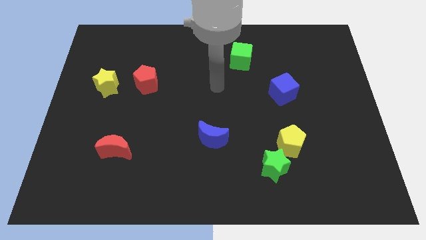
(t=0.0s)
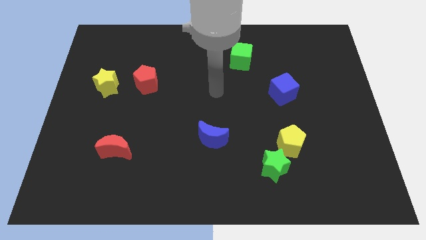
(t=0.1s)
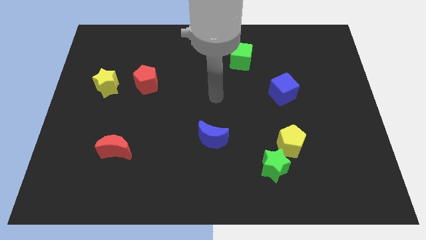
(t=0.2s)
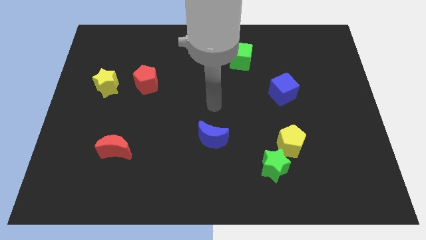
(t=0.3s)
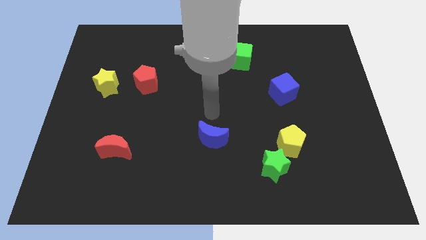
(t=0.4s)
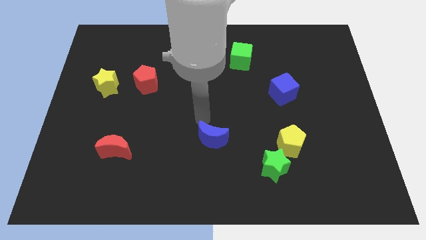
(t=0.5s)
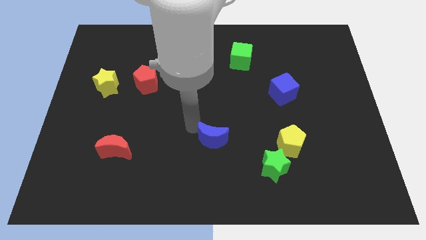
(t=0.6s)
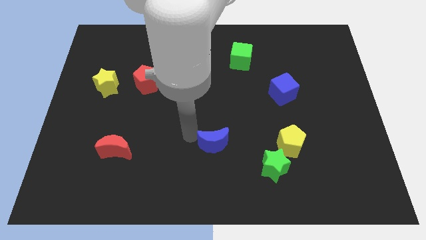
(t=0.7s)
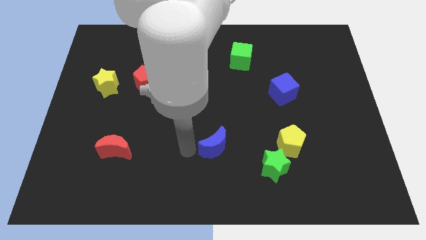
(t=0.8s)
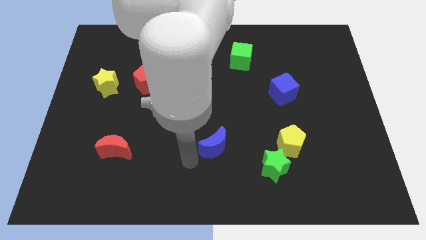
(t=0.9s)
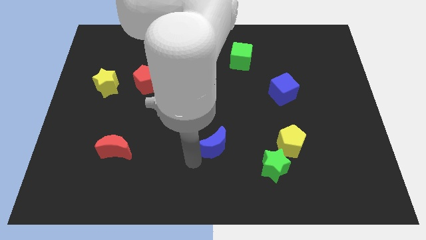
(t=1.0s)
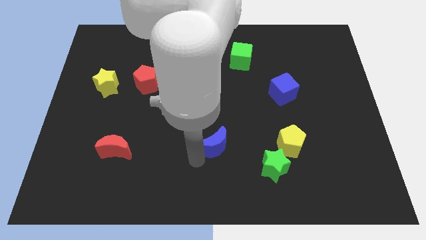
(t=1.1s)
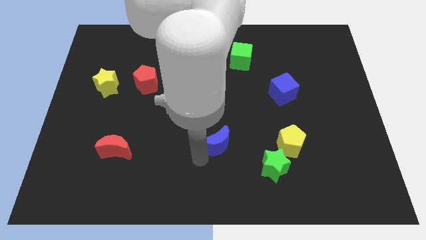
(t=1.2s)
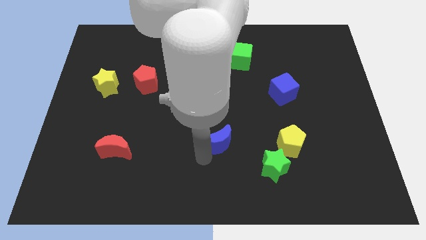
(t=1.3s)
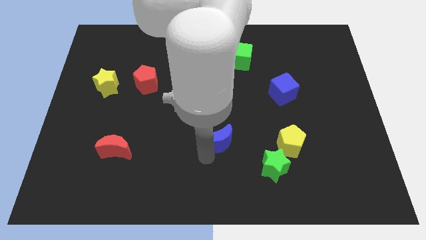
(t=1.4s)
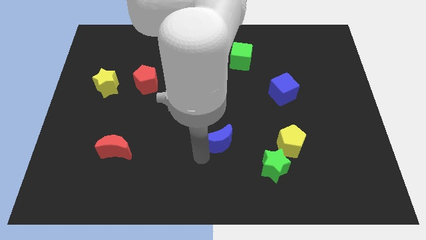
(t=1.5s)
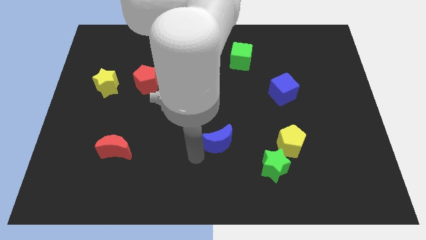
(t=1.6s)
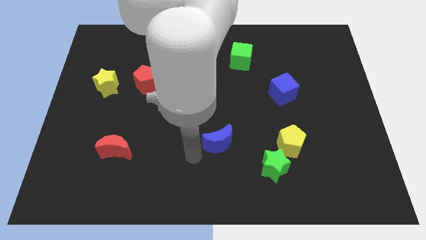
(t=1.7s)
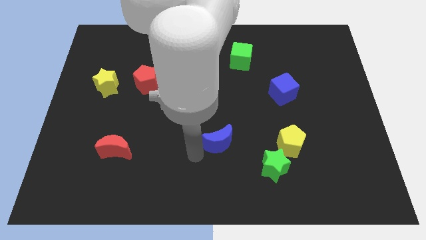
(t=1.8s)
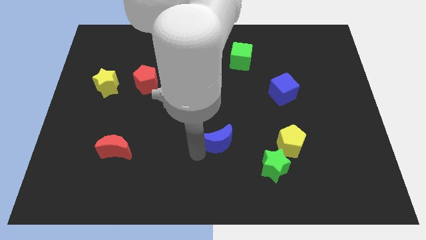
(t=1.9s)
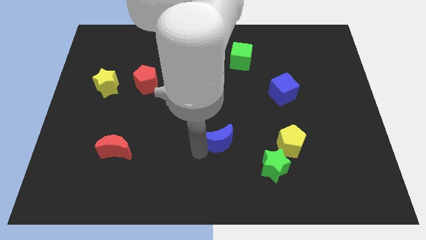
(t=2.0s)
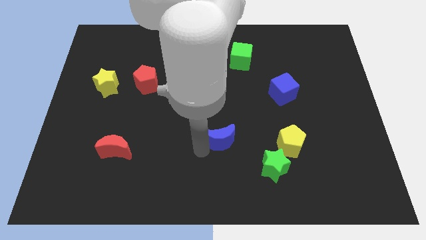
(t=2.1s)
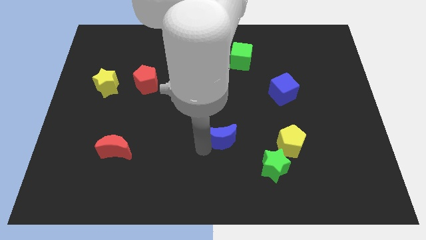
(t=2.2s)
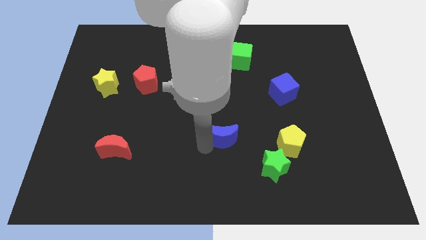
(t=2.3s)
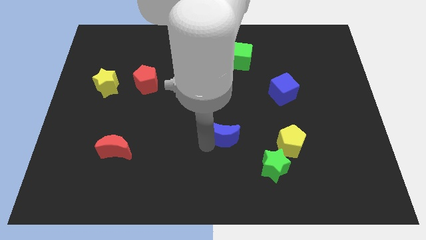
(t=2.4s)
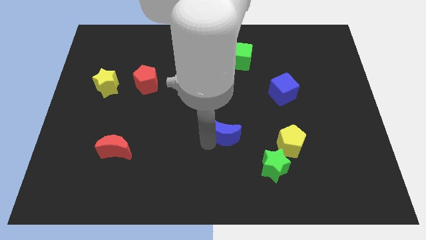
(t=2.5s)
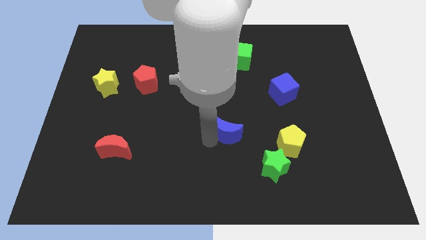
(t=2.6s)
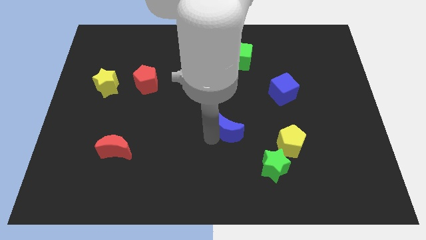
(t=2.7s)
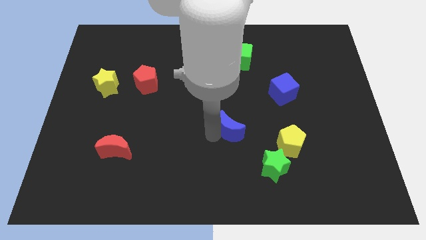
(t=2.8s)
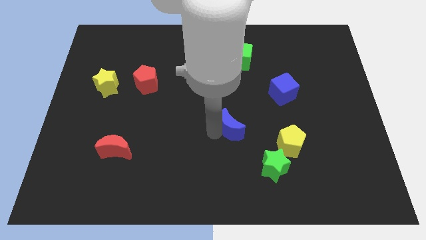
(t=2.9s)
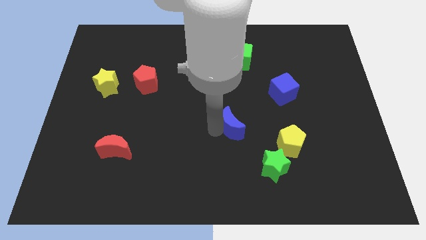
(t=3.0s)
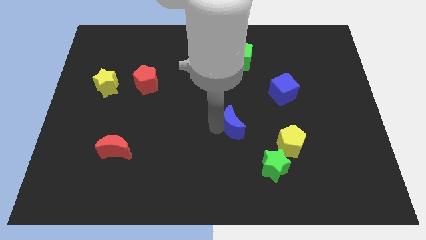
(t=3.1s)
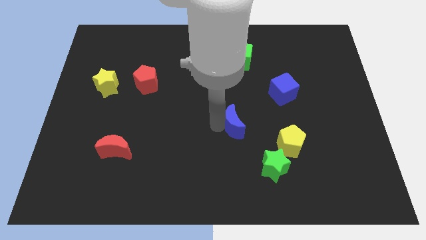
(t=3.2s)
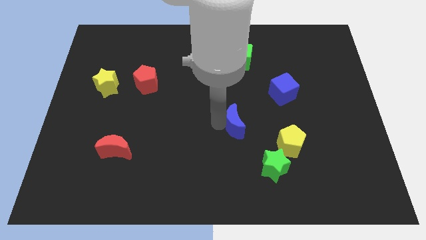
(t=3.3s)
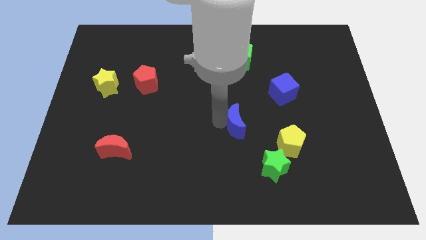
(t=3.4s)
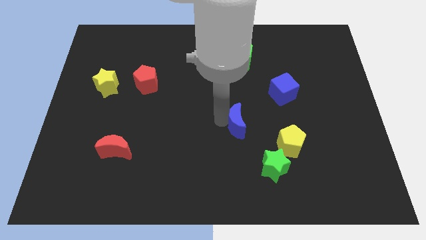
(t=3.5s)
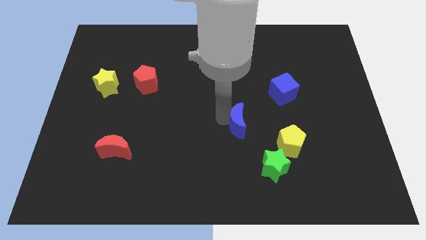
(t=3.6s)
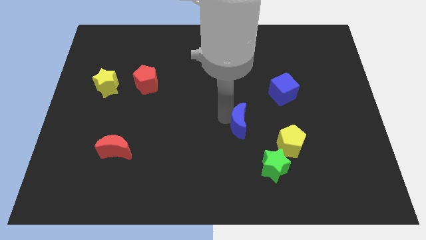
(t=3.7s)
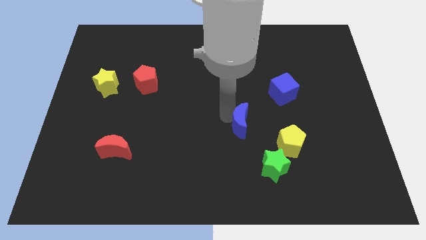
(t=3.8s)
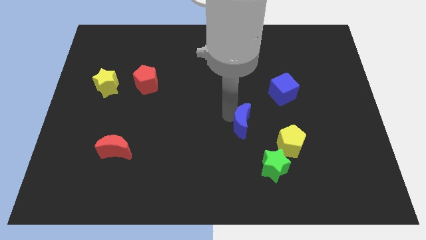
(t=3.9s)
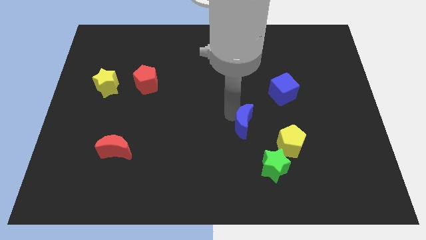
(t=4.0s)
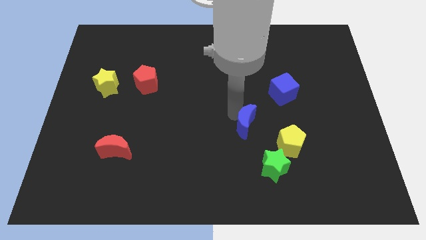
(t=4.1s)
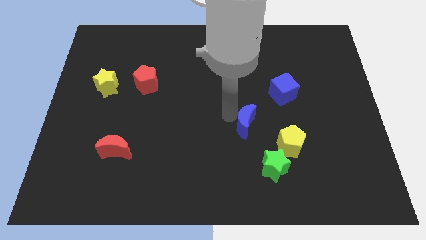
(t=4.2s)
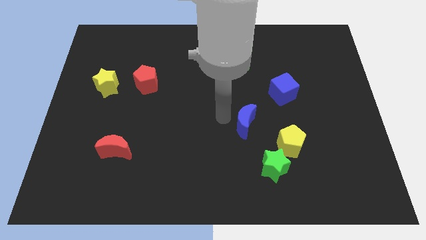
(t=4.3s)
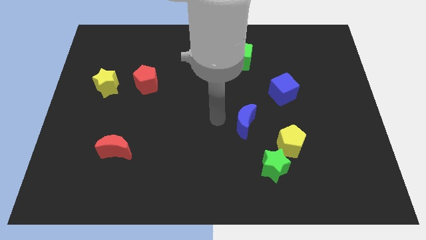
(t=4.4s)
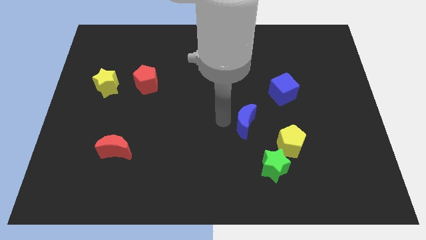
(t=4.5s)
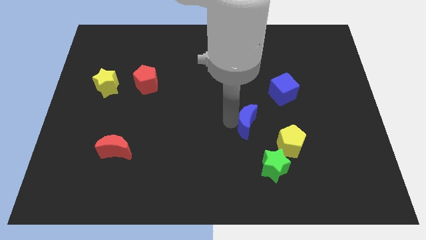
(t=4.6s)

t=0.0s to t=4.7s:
push the blue moon above the green star

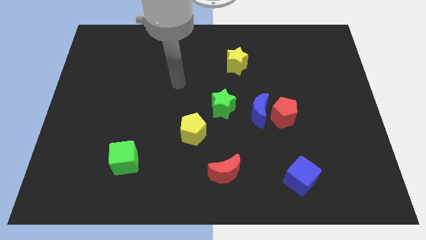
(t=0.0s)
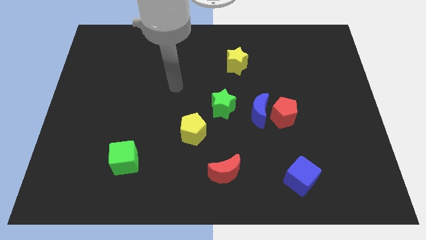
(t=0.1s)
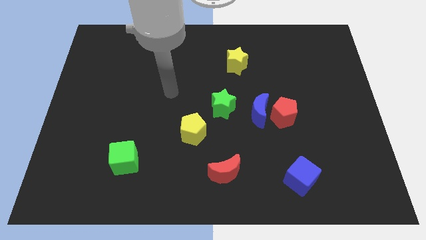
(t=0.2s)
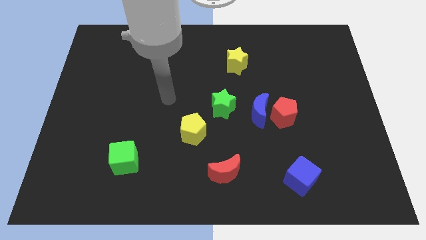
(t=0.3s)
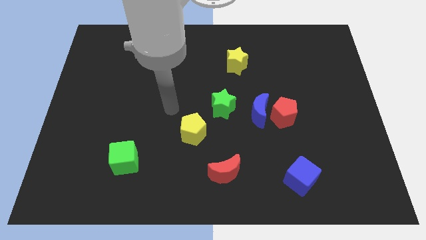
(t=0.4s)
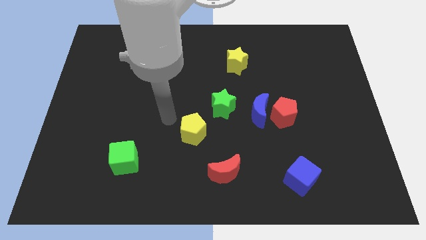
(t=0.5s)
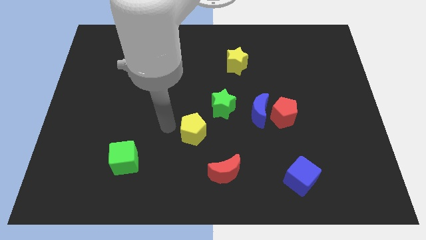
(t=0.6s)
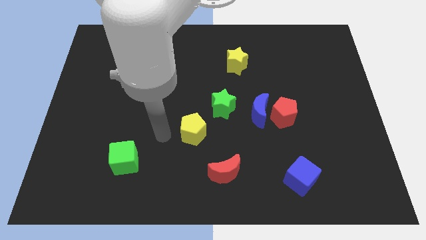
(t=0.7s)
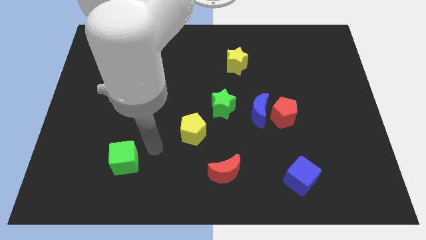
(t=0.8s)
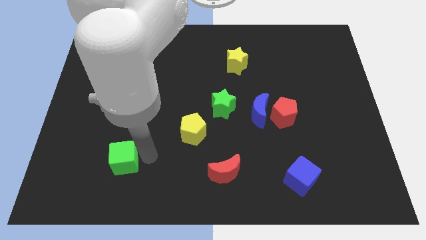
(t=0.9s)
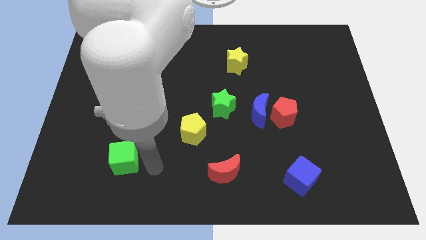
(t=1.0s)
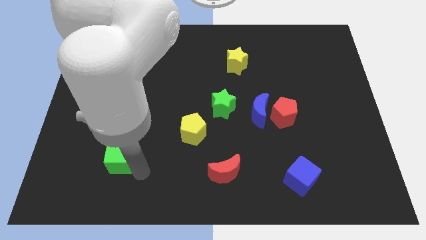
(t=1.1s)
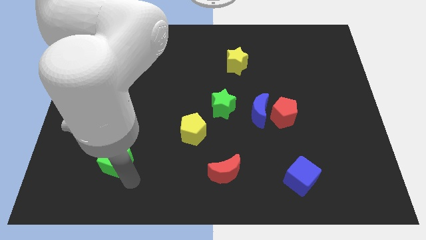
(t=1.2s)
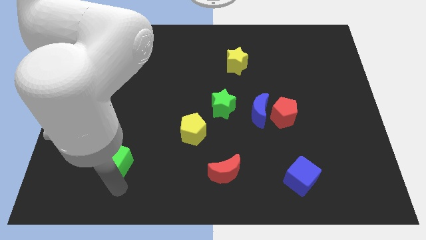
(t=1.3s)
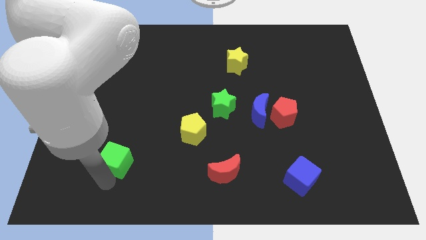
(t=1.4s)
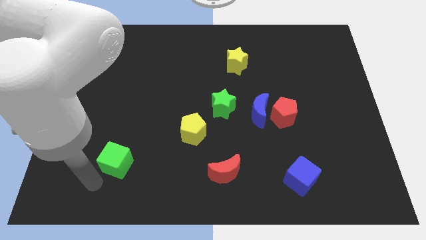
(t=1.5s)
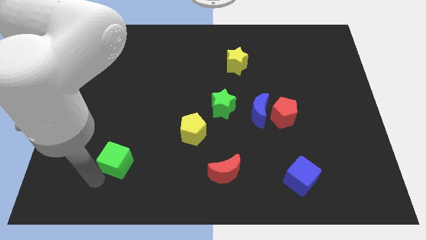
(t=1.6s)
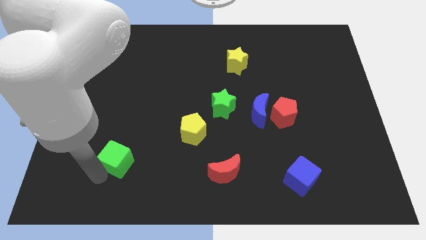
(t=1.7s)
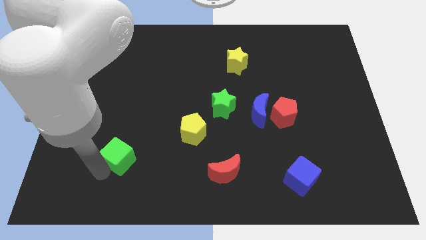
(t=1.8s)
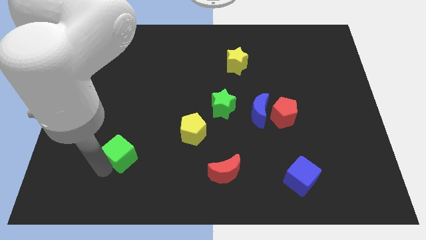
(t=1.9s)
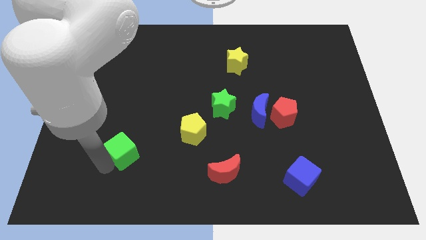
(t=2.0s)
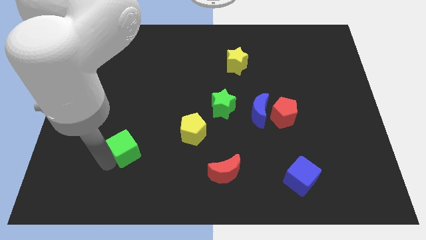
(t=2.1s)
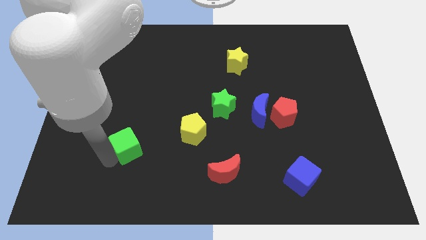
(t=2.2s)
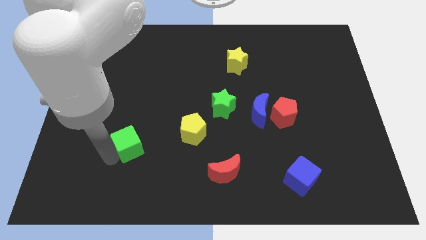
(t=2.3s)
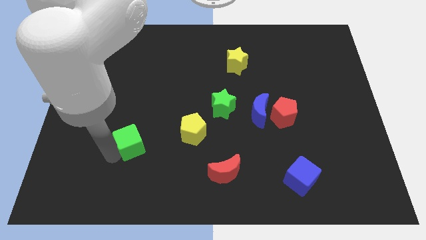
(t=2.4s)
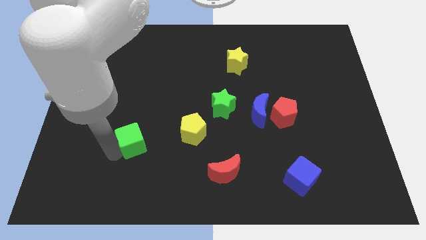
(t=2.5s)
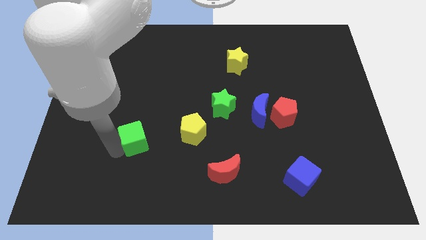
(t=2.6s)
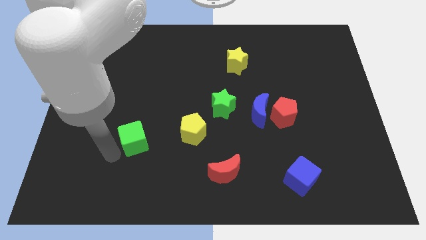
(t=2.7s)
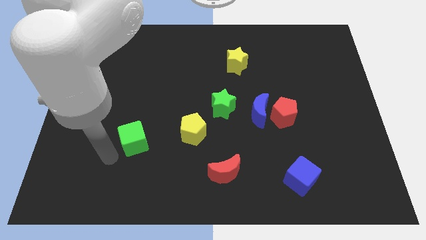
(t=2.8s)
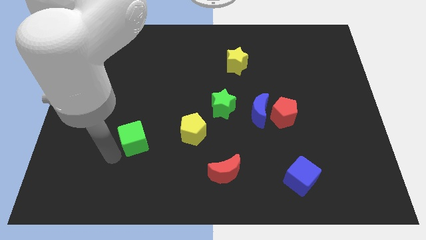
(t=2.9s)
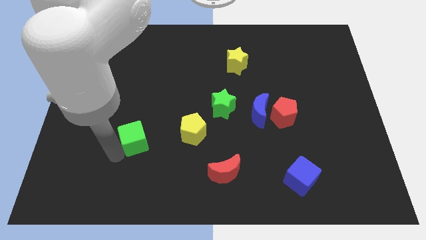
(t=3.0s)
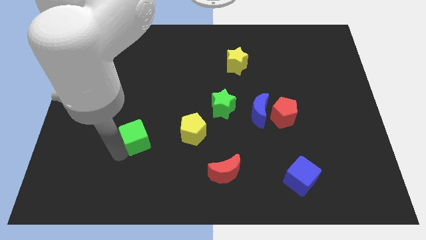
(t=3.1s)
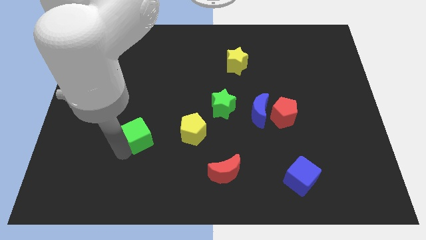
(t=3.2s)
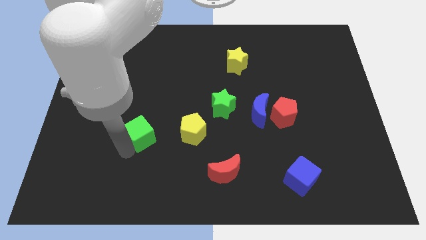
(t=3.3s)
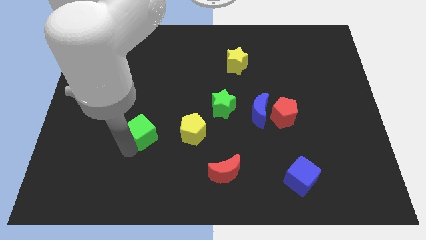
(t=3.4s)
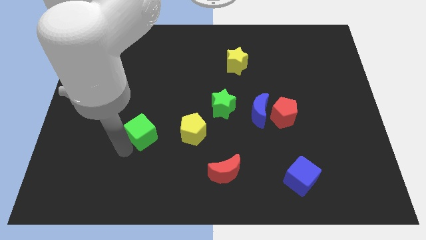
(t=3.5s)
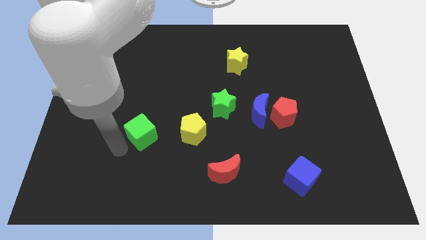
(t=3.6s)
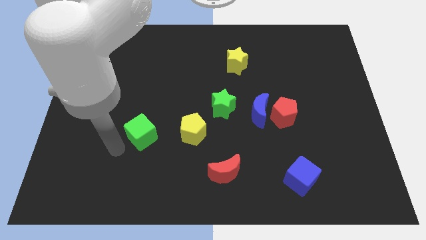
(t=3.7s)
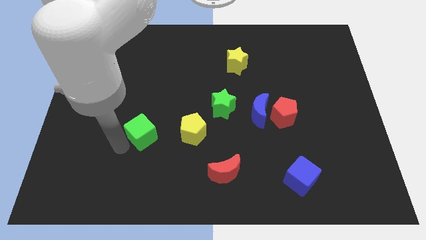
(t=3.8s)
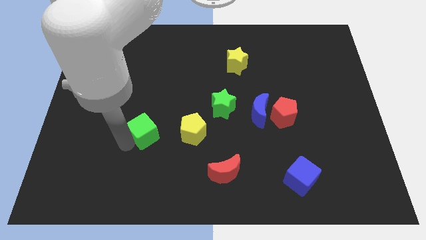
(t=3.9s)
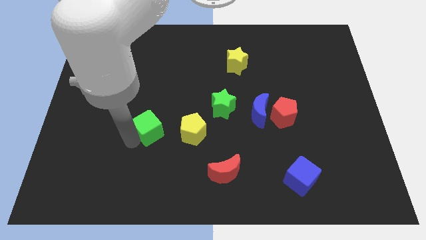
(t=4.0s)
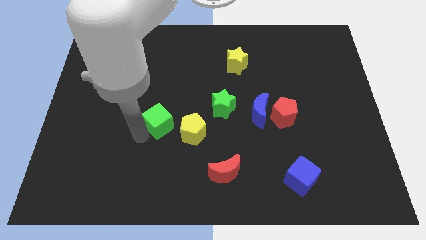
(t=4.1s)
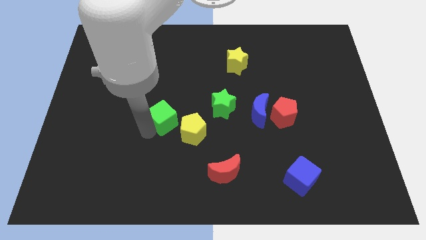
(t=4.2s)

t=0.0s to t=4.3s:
move the green cube just left of the green star
